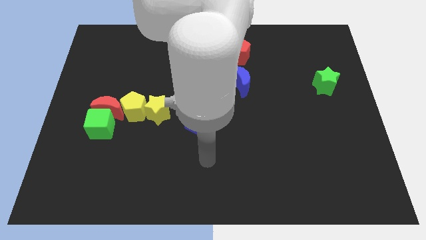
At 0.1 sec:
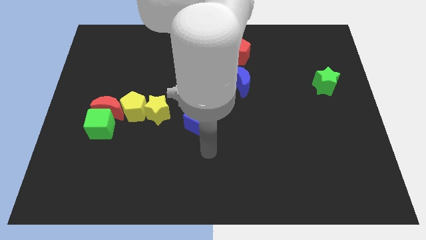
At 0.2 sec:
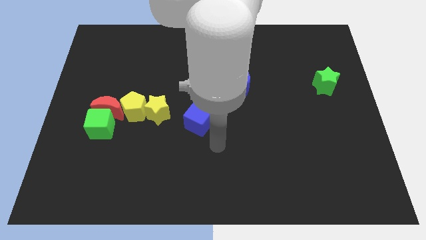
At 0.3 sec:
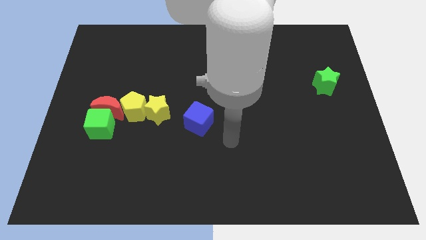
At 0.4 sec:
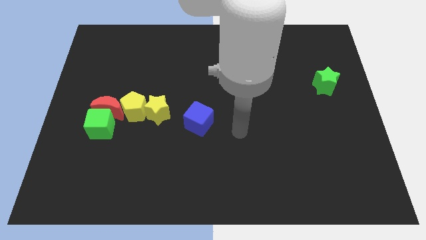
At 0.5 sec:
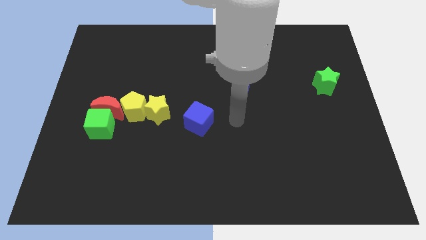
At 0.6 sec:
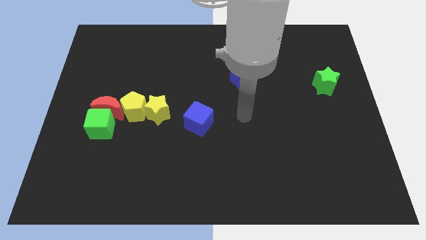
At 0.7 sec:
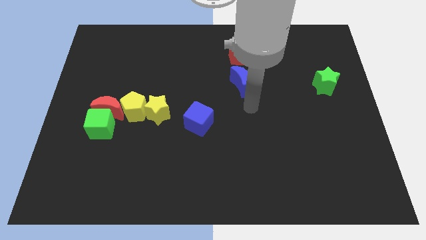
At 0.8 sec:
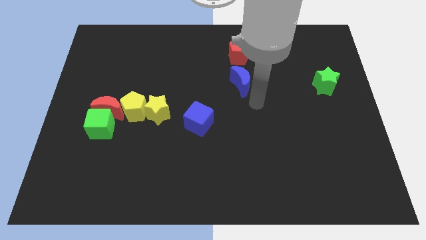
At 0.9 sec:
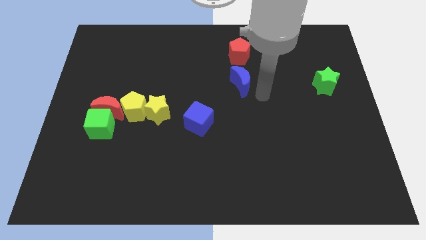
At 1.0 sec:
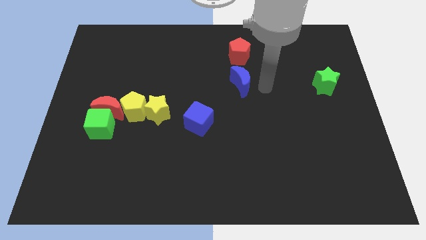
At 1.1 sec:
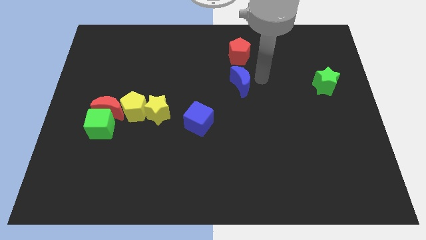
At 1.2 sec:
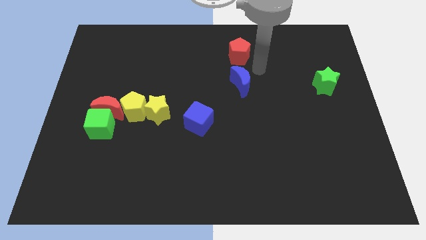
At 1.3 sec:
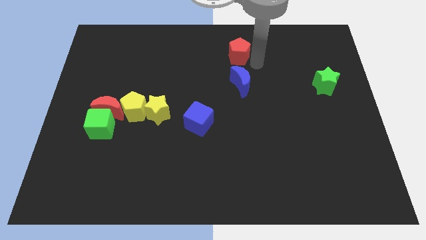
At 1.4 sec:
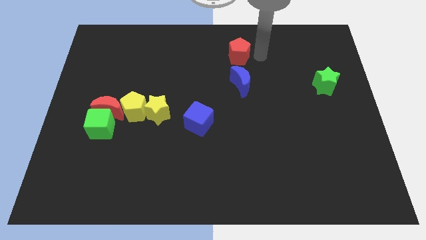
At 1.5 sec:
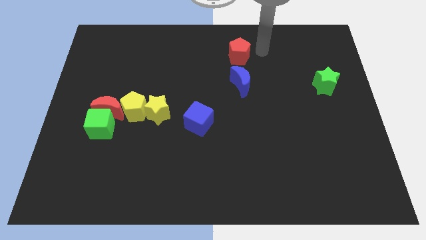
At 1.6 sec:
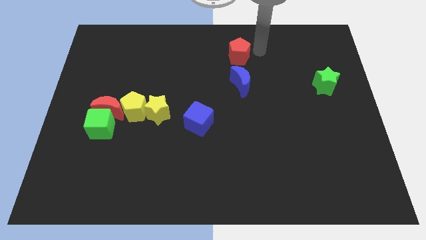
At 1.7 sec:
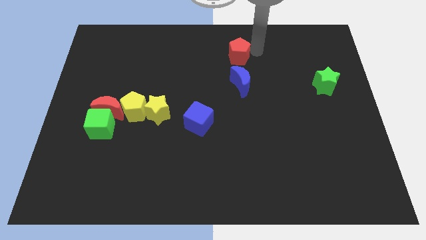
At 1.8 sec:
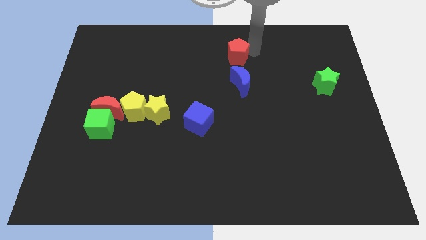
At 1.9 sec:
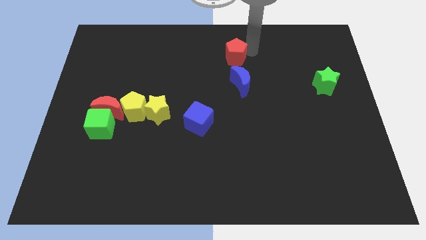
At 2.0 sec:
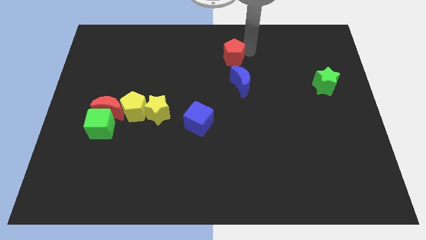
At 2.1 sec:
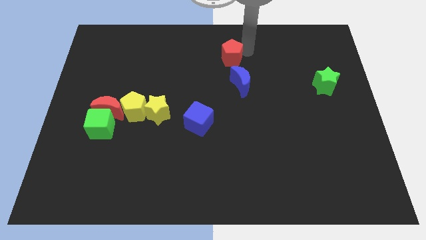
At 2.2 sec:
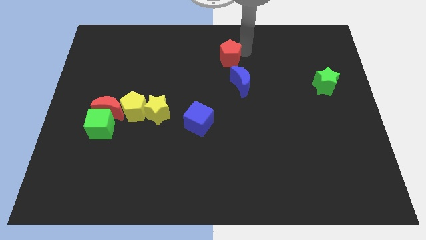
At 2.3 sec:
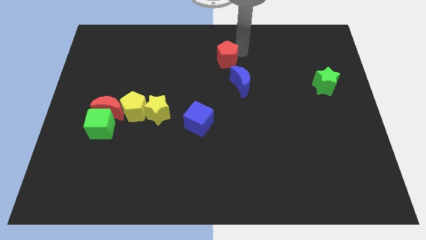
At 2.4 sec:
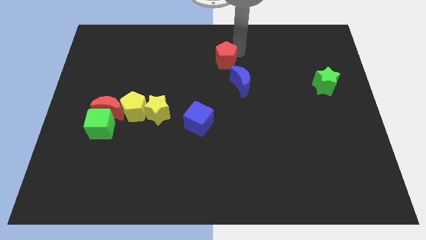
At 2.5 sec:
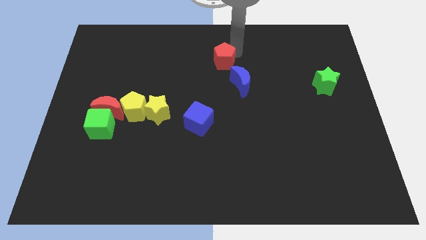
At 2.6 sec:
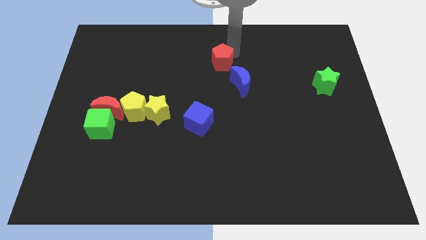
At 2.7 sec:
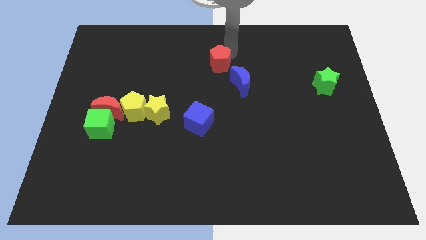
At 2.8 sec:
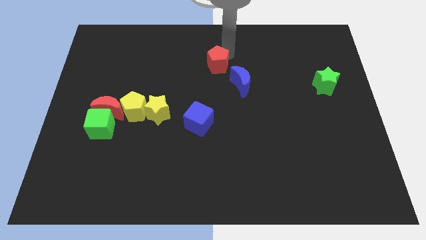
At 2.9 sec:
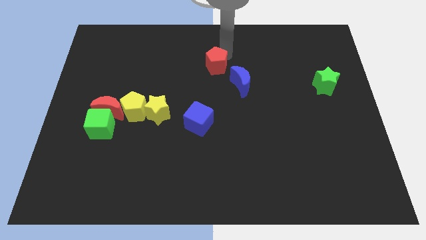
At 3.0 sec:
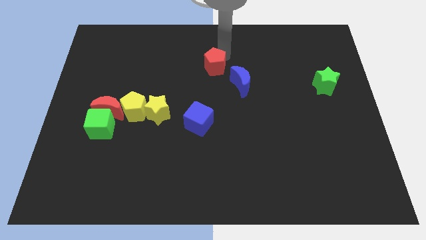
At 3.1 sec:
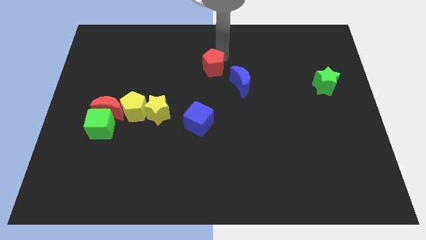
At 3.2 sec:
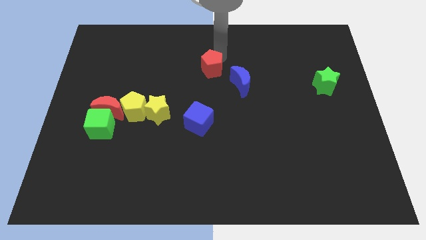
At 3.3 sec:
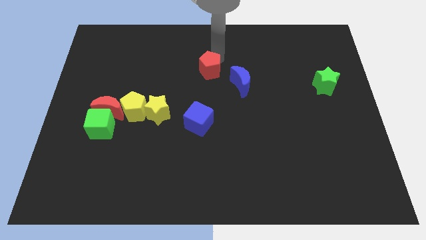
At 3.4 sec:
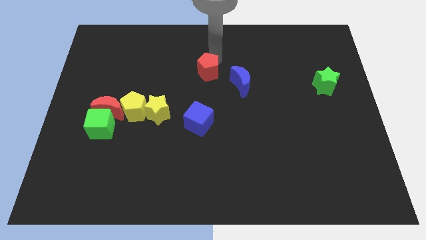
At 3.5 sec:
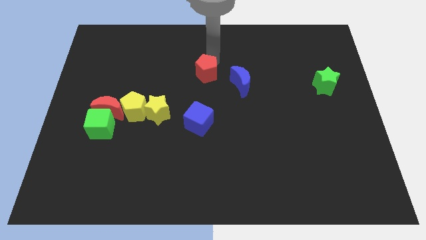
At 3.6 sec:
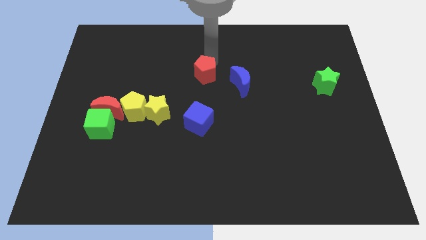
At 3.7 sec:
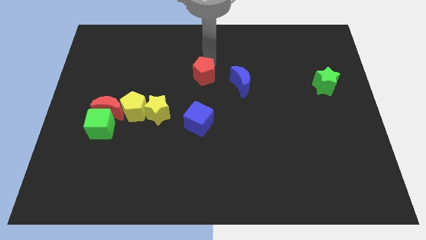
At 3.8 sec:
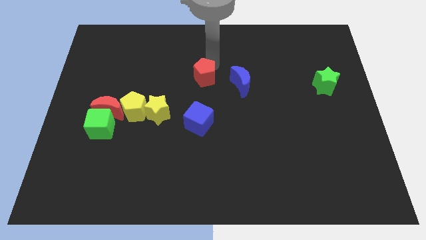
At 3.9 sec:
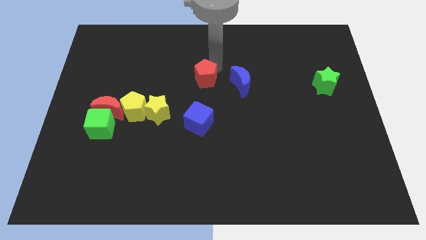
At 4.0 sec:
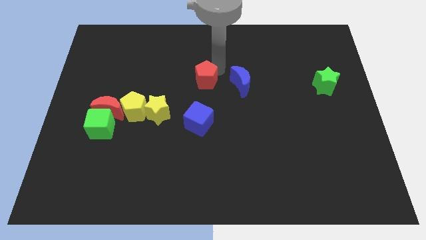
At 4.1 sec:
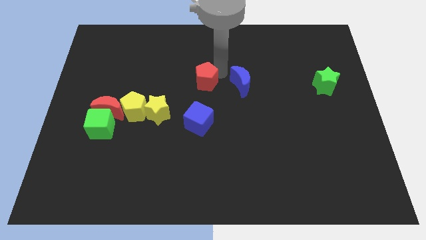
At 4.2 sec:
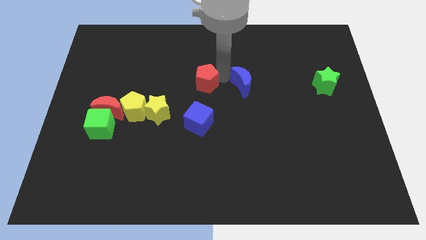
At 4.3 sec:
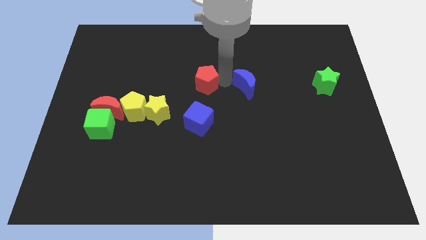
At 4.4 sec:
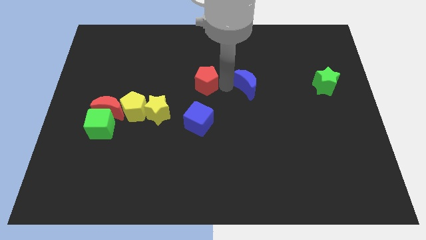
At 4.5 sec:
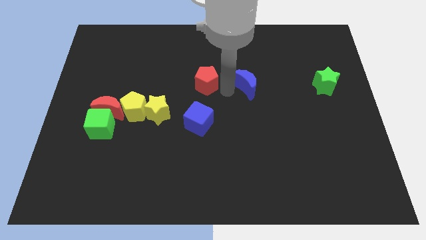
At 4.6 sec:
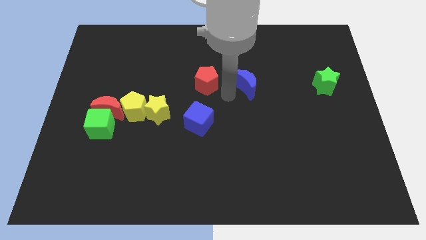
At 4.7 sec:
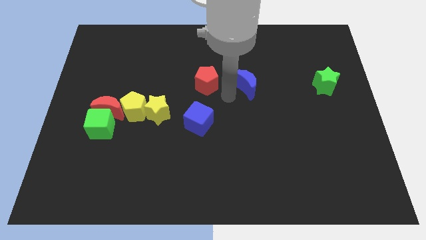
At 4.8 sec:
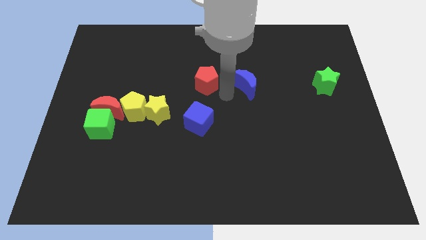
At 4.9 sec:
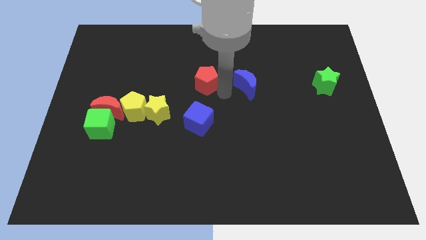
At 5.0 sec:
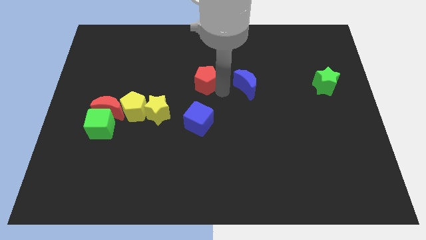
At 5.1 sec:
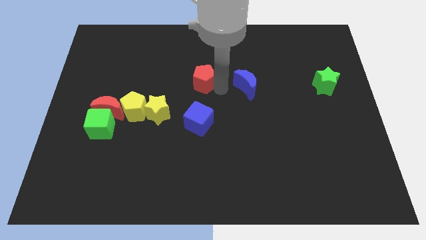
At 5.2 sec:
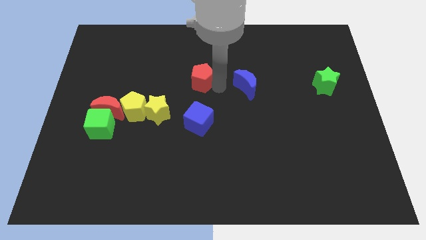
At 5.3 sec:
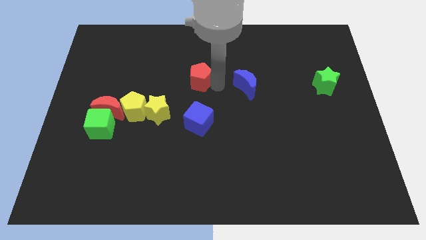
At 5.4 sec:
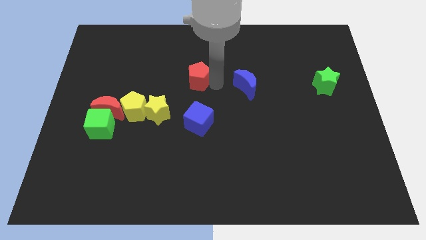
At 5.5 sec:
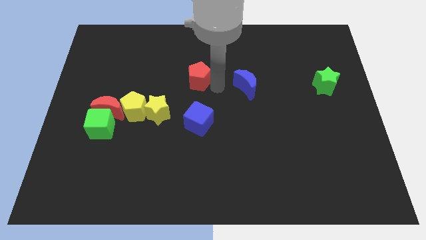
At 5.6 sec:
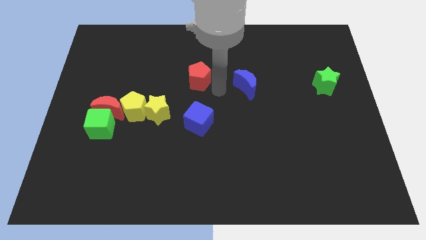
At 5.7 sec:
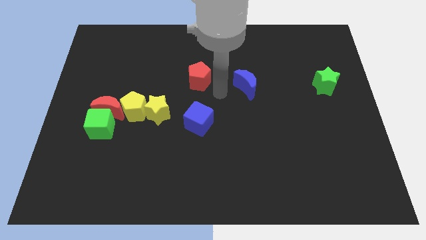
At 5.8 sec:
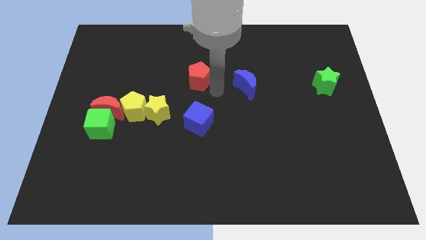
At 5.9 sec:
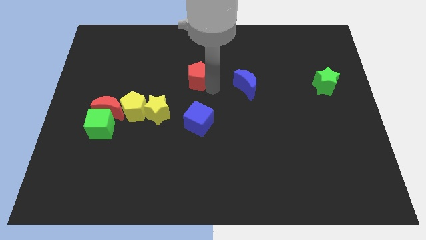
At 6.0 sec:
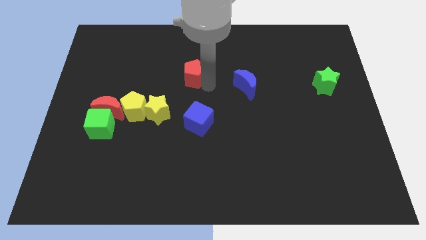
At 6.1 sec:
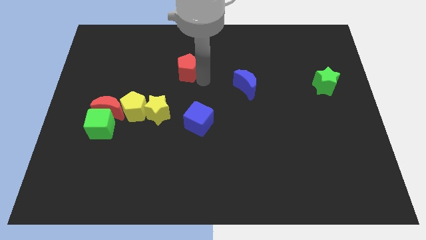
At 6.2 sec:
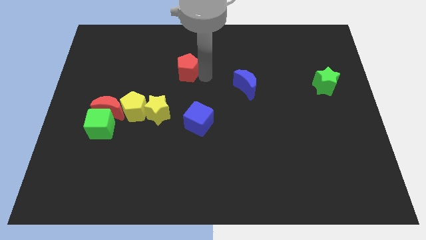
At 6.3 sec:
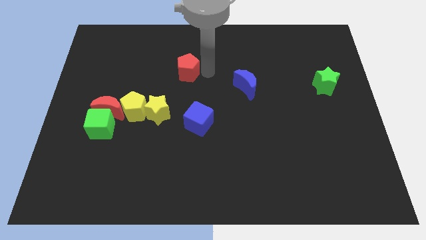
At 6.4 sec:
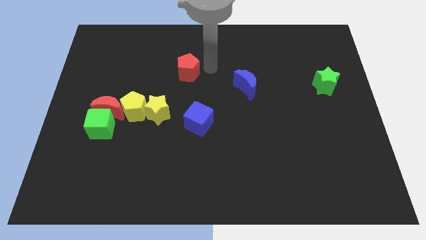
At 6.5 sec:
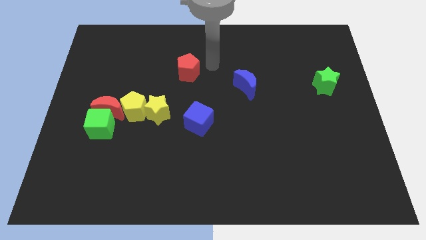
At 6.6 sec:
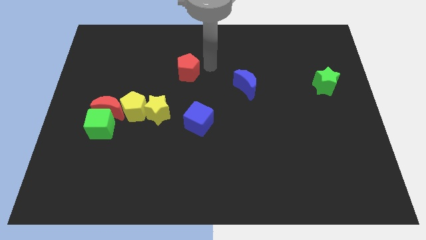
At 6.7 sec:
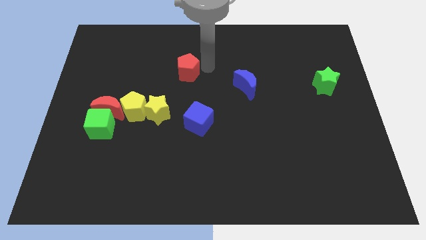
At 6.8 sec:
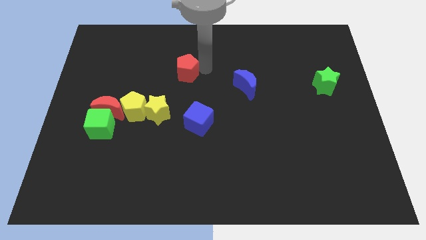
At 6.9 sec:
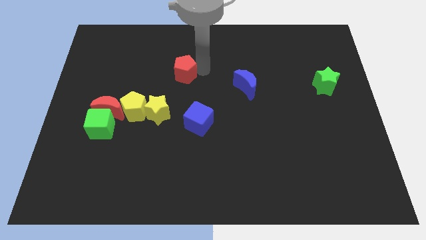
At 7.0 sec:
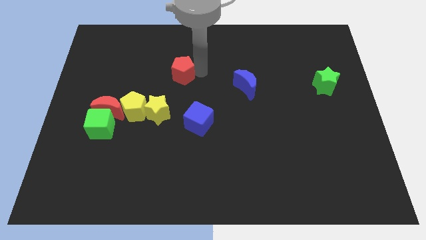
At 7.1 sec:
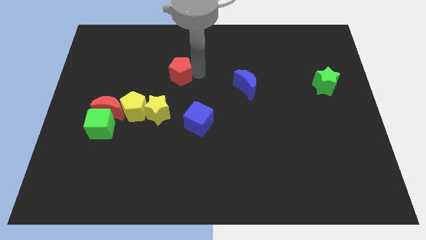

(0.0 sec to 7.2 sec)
move the red pentagon above the yellow star
